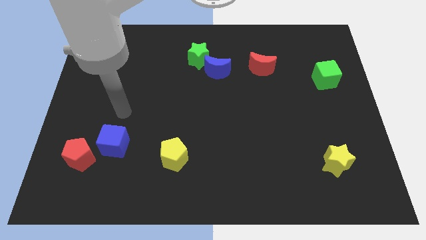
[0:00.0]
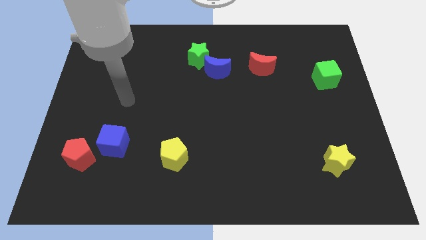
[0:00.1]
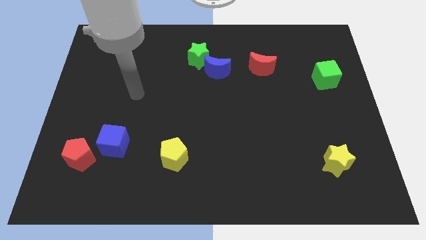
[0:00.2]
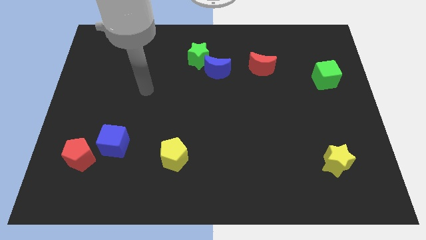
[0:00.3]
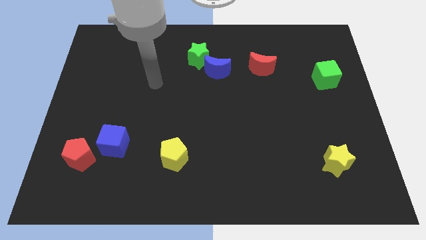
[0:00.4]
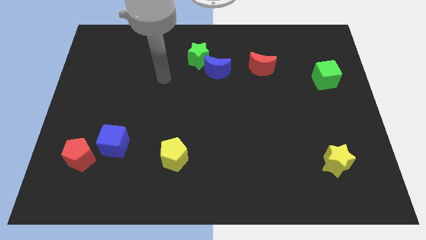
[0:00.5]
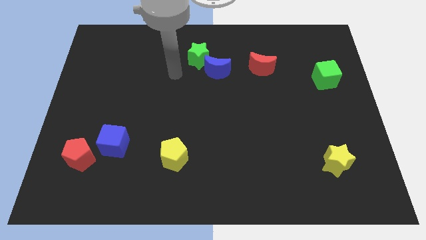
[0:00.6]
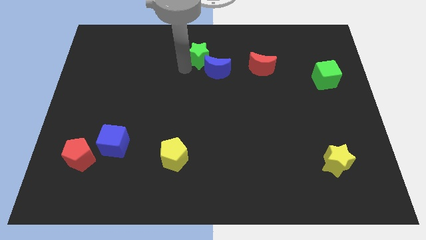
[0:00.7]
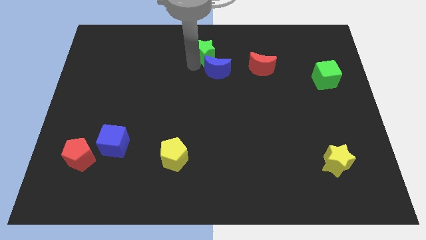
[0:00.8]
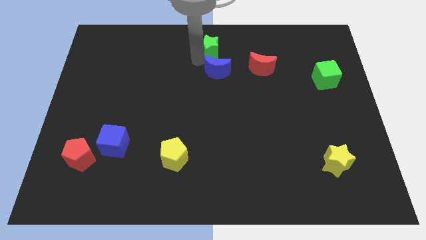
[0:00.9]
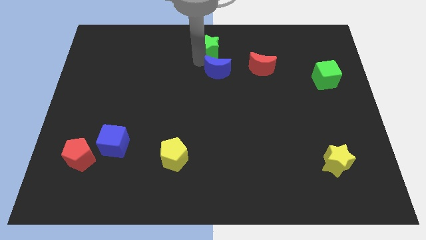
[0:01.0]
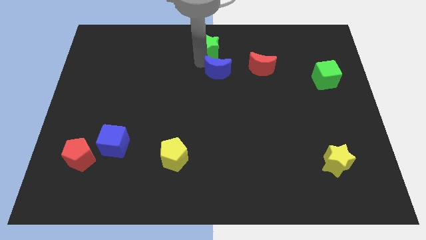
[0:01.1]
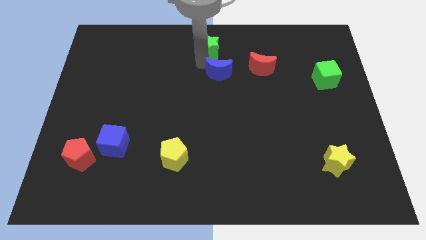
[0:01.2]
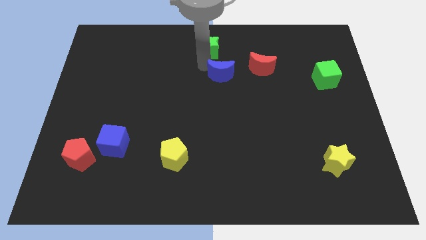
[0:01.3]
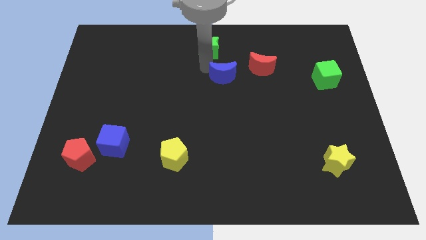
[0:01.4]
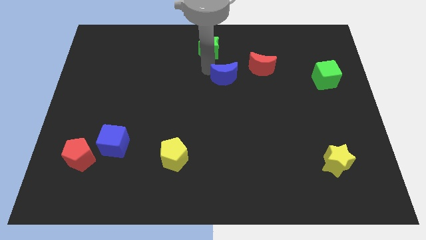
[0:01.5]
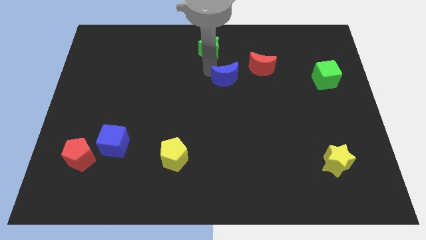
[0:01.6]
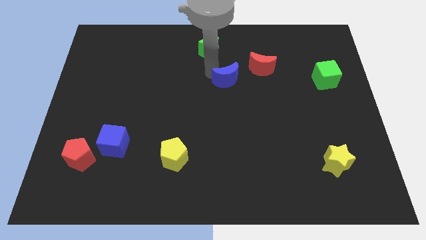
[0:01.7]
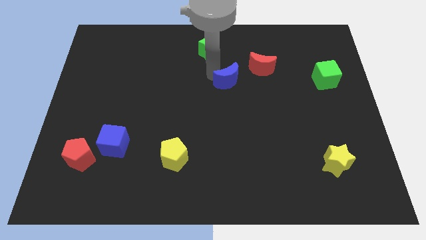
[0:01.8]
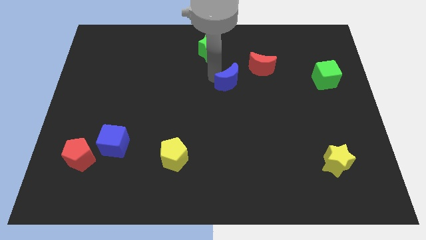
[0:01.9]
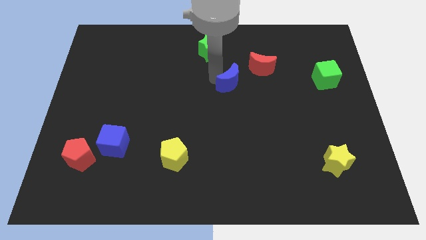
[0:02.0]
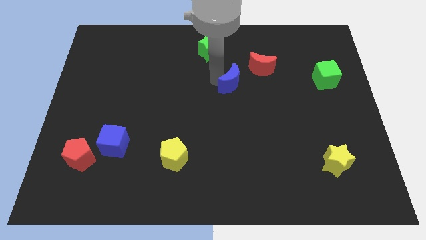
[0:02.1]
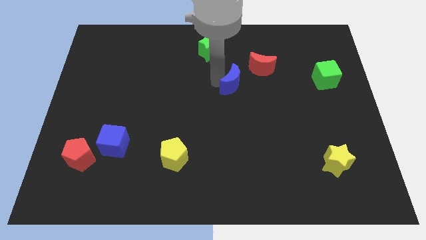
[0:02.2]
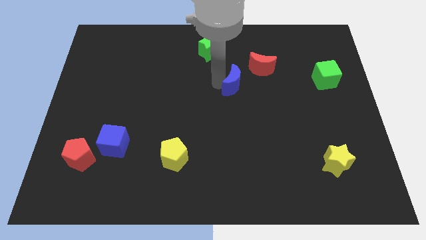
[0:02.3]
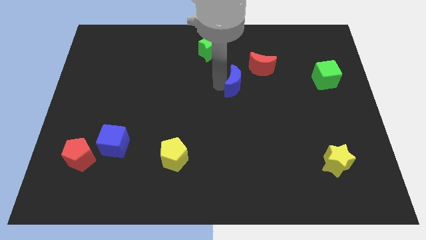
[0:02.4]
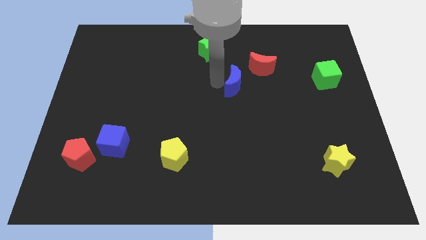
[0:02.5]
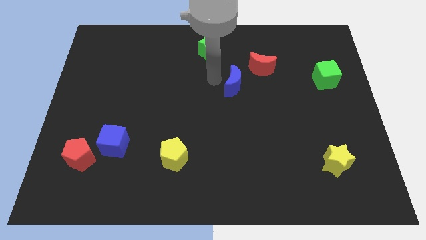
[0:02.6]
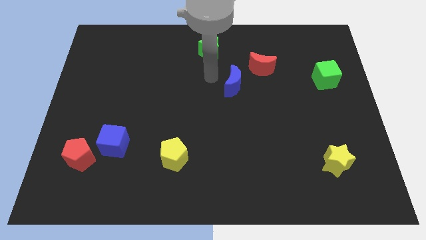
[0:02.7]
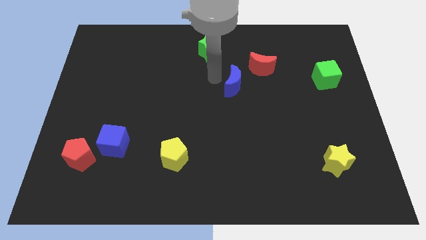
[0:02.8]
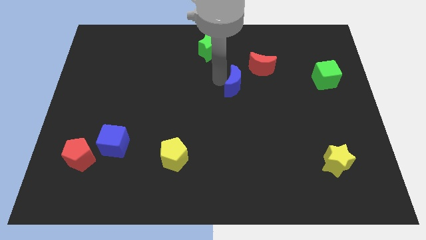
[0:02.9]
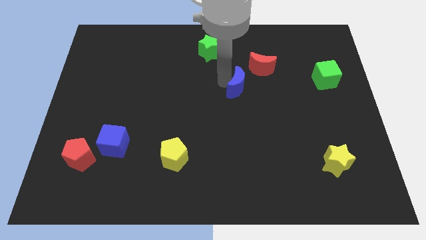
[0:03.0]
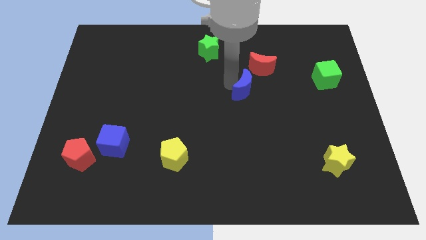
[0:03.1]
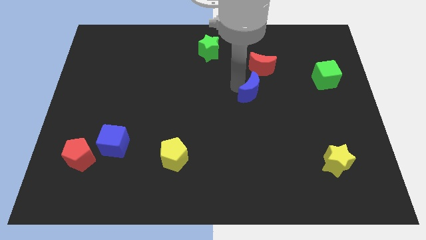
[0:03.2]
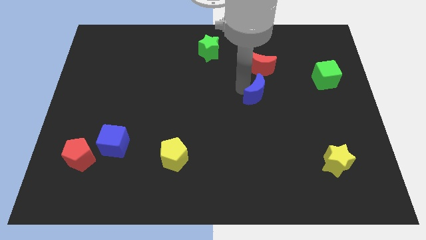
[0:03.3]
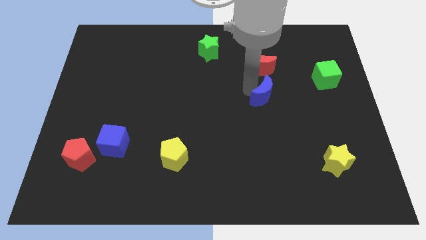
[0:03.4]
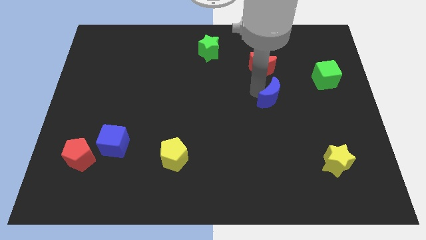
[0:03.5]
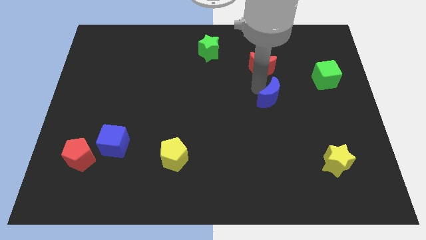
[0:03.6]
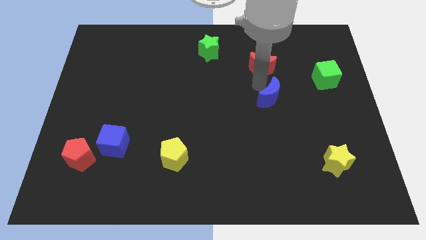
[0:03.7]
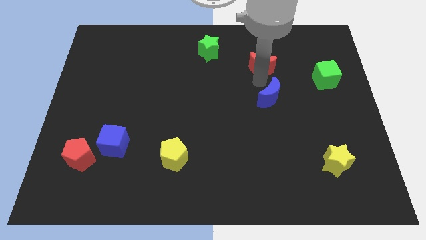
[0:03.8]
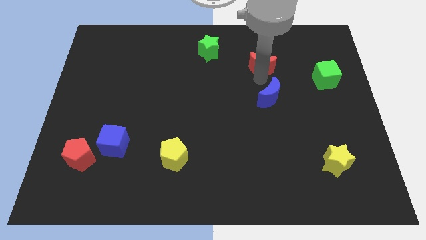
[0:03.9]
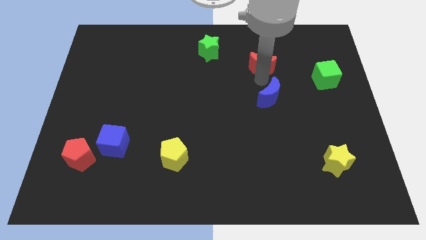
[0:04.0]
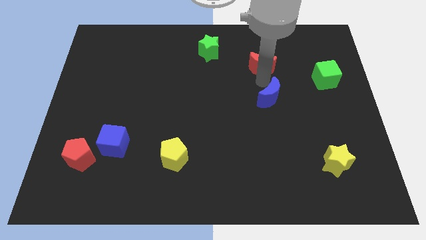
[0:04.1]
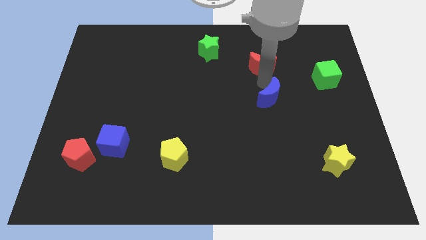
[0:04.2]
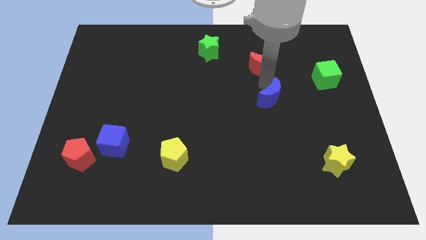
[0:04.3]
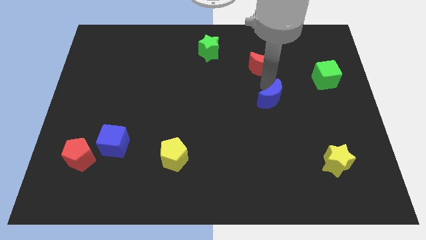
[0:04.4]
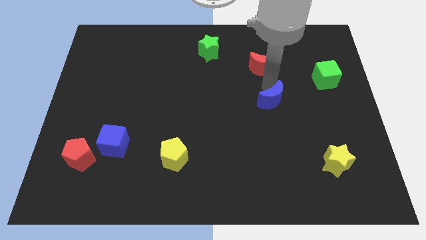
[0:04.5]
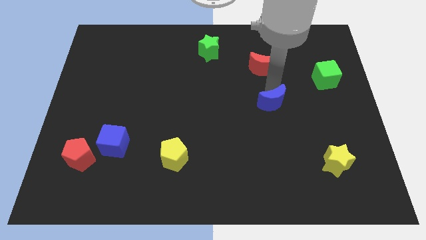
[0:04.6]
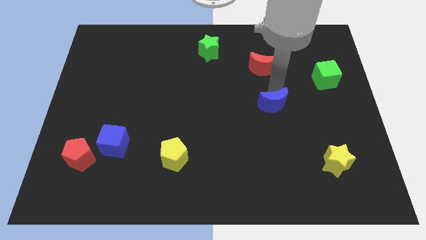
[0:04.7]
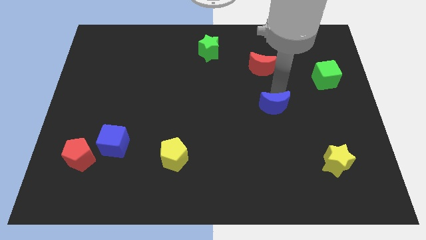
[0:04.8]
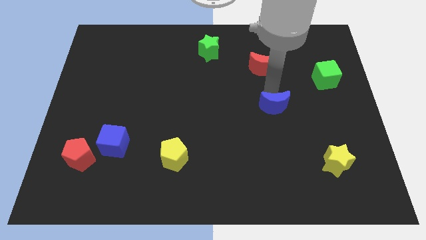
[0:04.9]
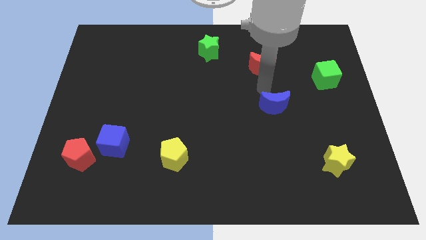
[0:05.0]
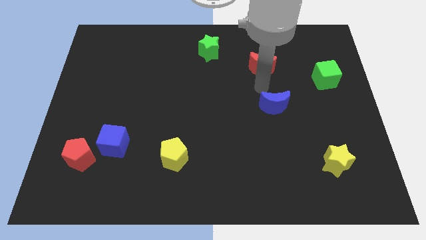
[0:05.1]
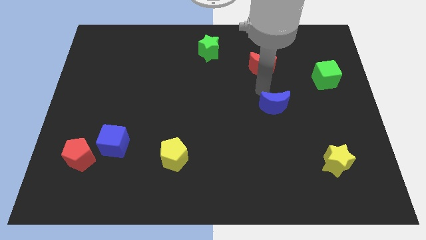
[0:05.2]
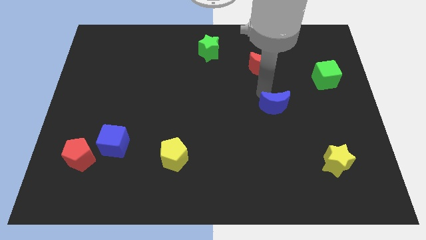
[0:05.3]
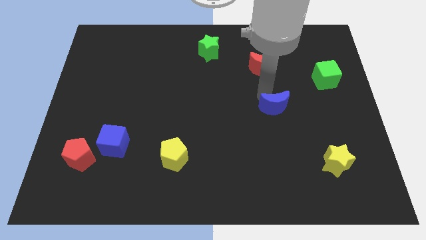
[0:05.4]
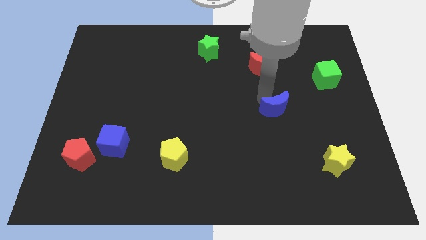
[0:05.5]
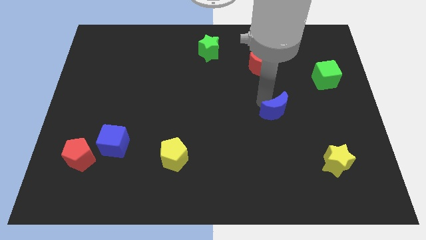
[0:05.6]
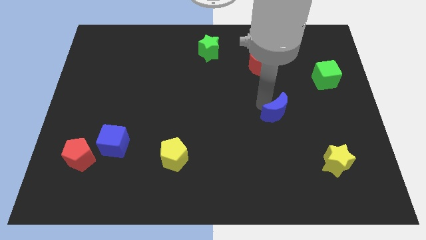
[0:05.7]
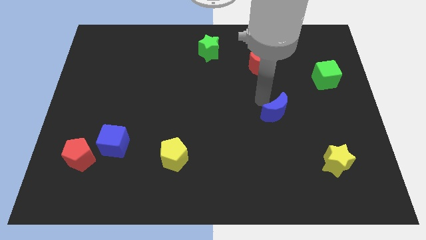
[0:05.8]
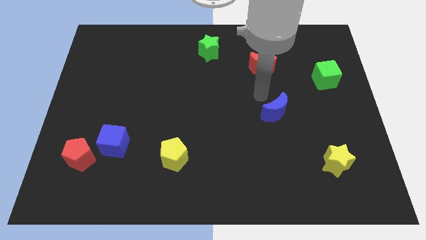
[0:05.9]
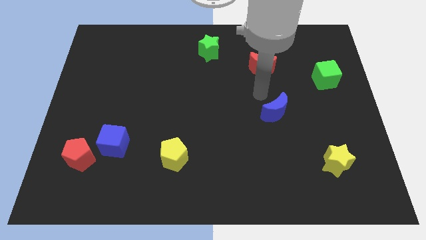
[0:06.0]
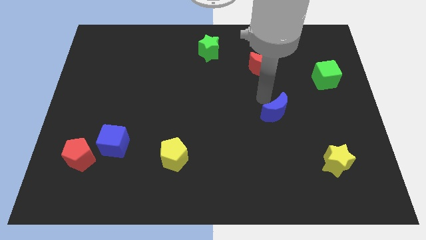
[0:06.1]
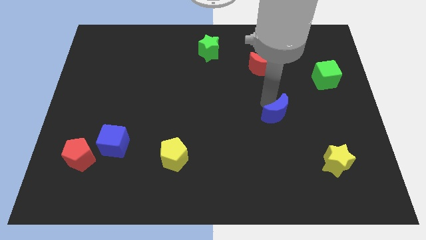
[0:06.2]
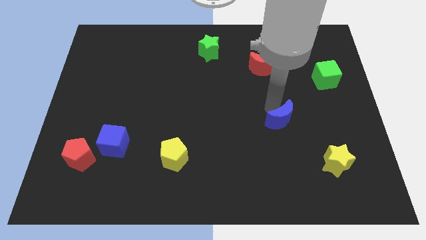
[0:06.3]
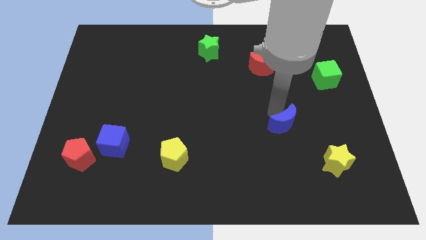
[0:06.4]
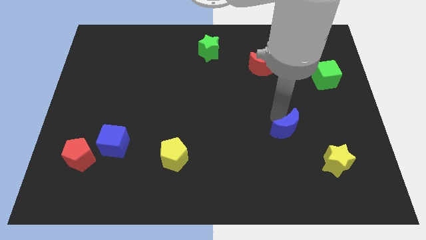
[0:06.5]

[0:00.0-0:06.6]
slide the blue moon diagonally up and to the left of the yellow star

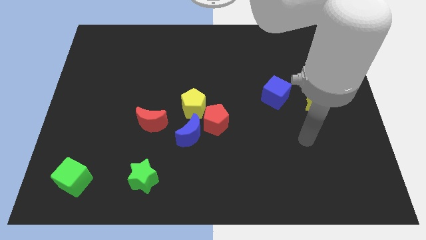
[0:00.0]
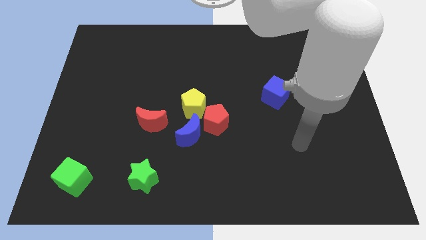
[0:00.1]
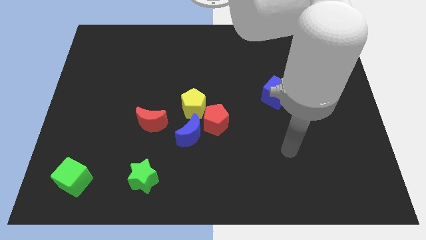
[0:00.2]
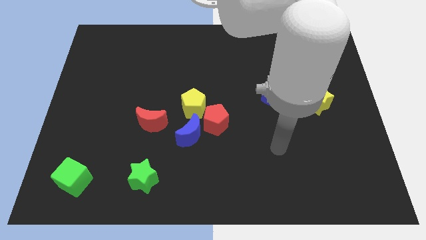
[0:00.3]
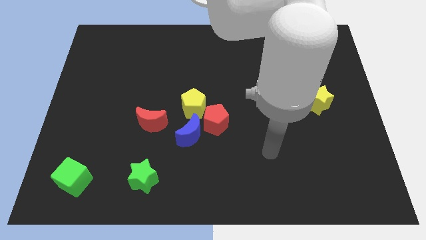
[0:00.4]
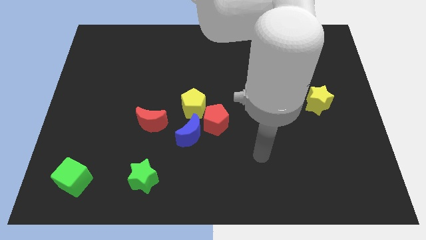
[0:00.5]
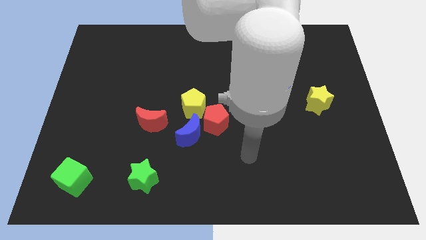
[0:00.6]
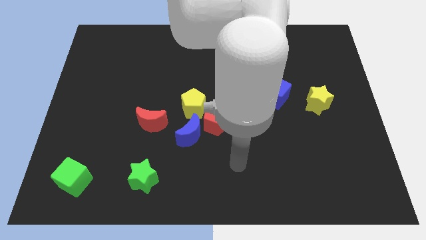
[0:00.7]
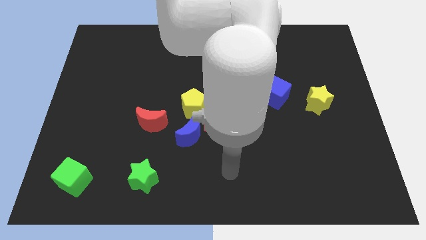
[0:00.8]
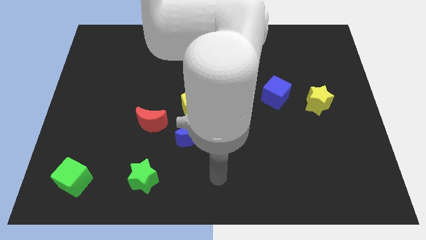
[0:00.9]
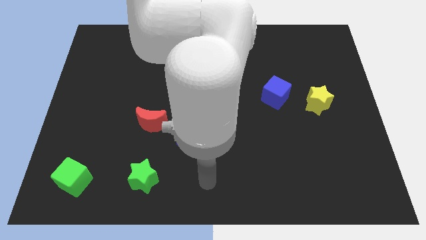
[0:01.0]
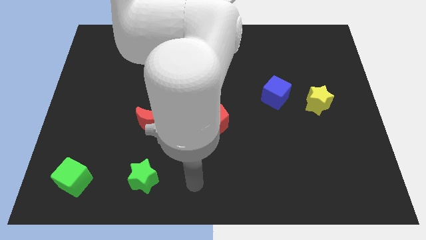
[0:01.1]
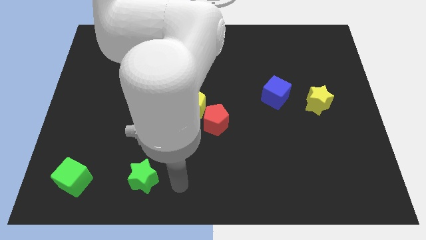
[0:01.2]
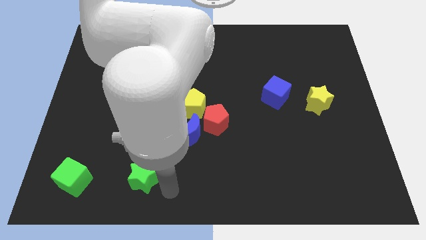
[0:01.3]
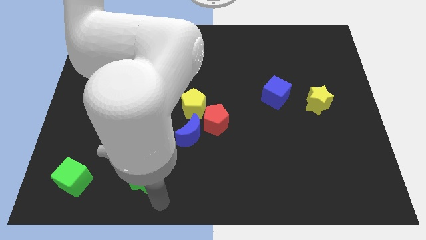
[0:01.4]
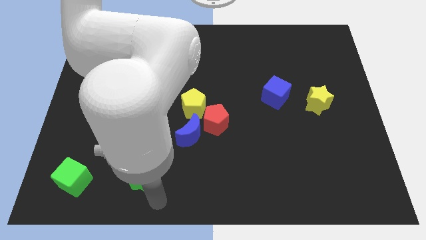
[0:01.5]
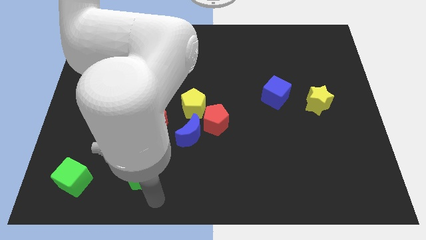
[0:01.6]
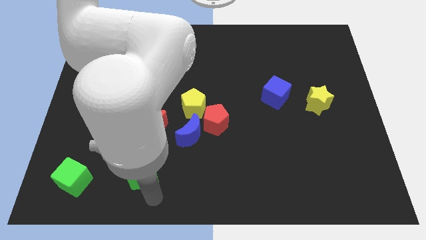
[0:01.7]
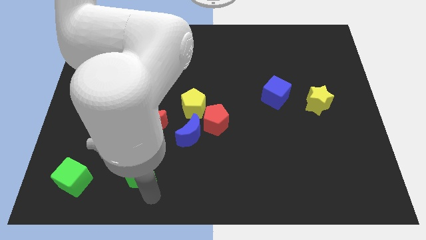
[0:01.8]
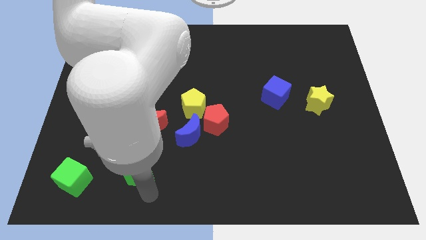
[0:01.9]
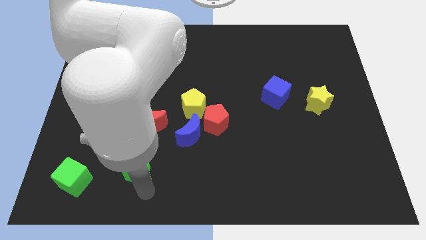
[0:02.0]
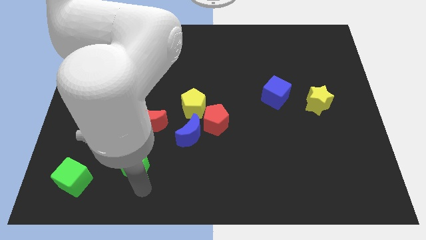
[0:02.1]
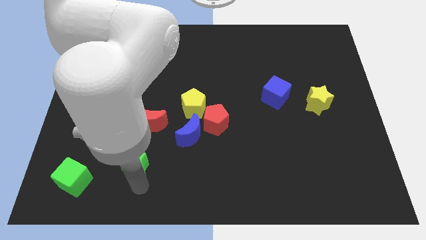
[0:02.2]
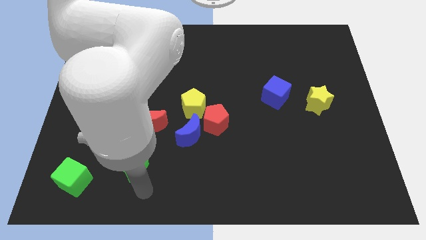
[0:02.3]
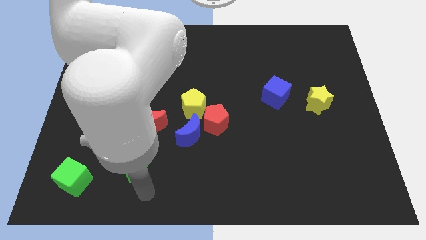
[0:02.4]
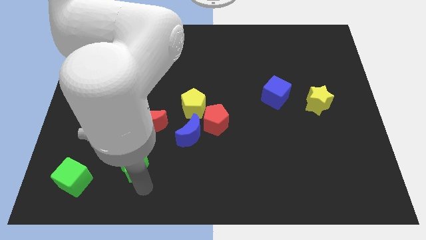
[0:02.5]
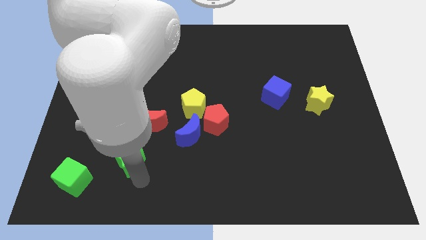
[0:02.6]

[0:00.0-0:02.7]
slide the green star diagonally down and to the left of the red moon
